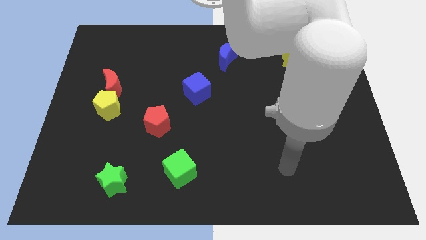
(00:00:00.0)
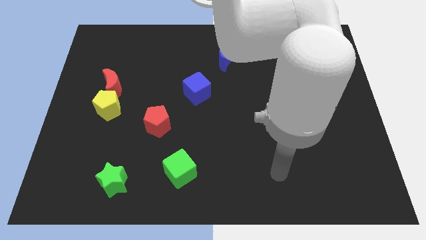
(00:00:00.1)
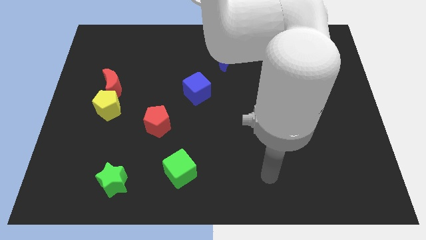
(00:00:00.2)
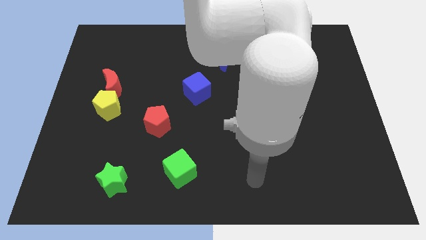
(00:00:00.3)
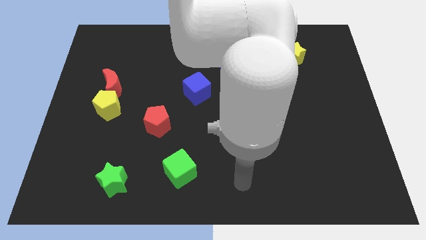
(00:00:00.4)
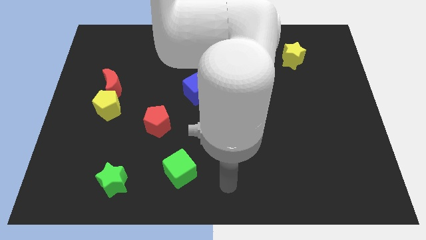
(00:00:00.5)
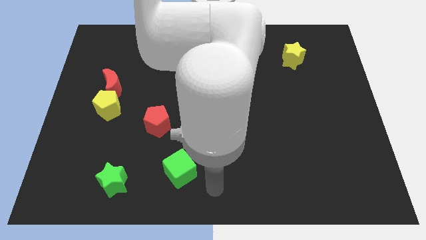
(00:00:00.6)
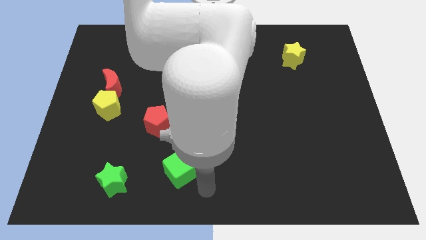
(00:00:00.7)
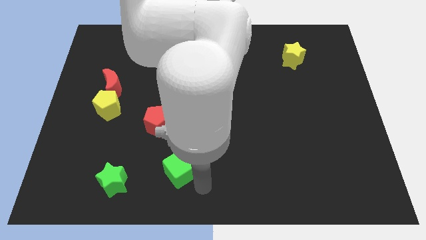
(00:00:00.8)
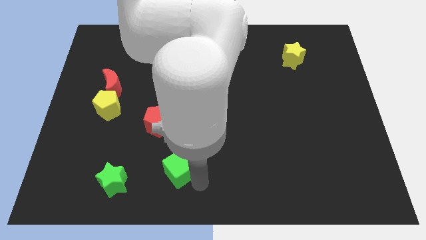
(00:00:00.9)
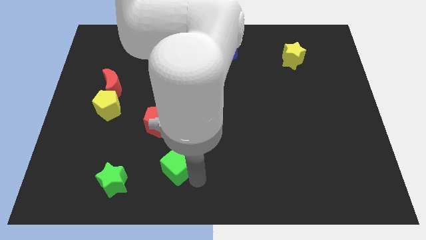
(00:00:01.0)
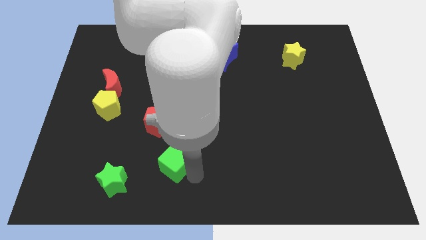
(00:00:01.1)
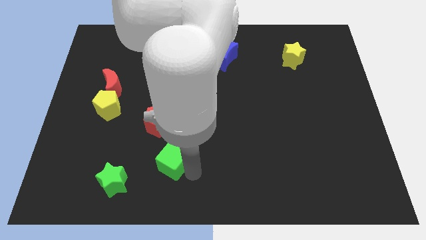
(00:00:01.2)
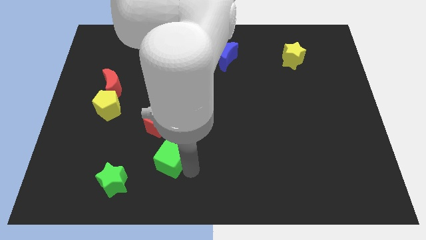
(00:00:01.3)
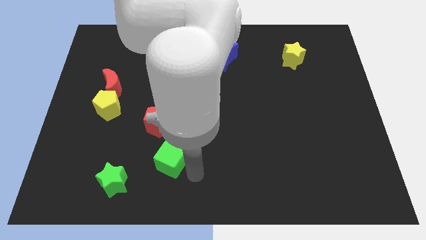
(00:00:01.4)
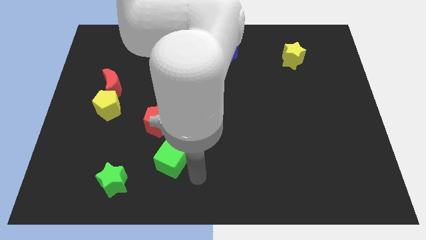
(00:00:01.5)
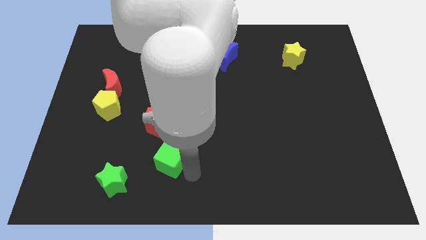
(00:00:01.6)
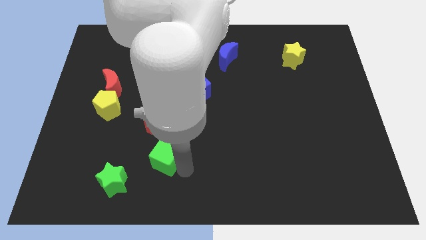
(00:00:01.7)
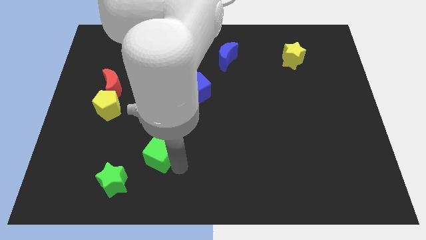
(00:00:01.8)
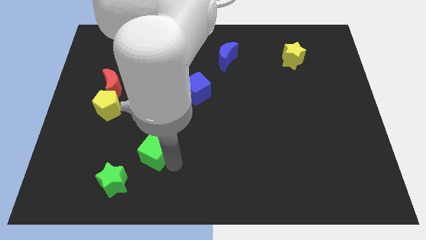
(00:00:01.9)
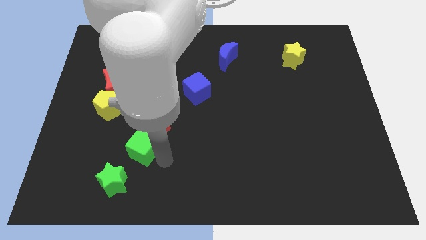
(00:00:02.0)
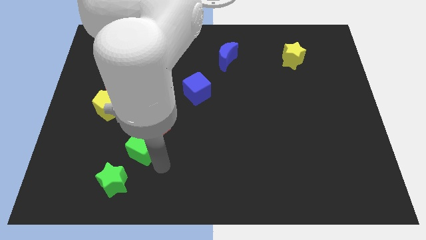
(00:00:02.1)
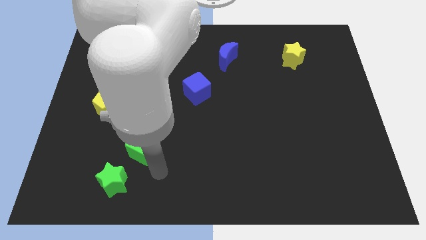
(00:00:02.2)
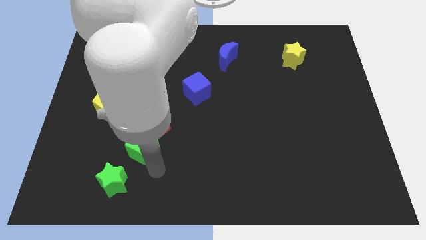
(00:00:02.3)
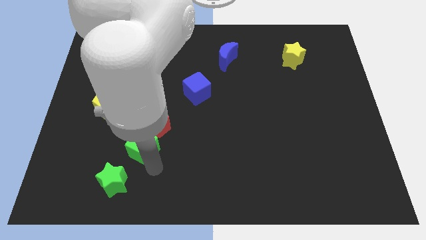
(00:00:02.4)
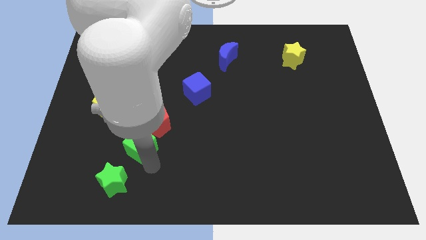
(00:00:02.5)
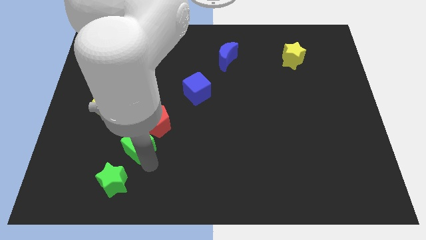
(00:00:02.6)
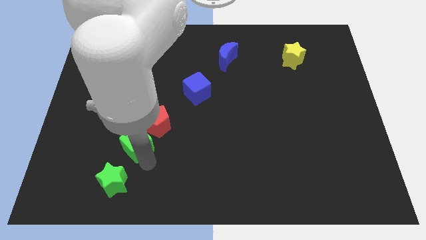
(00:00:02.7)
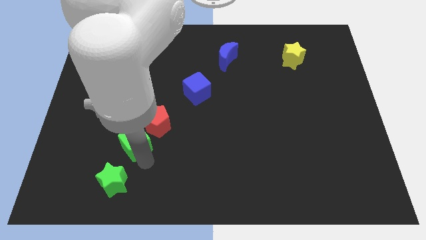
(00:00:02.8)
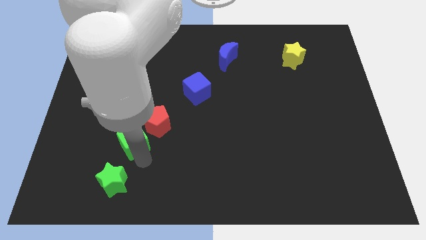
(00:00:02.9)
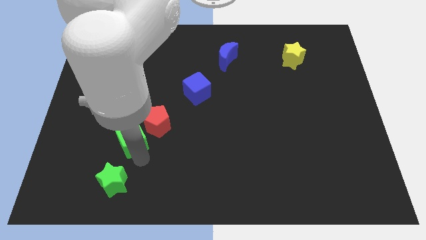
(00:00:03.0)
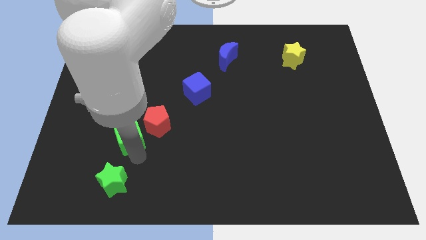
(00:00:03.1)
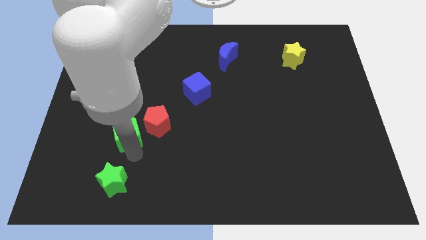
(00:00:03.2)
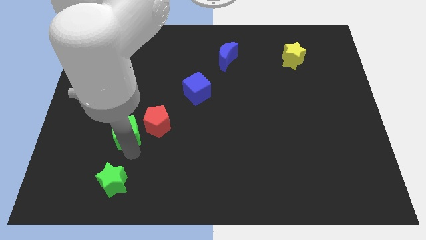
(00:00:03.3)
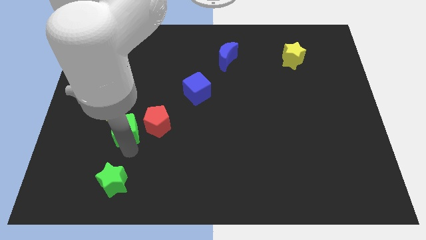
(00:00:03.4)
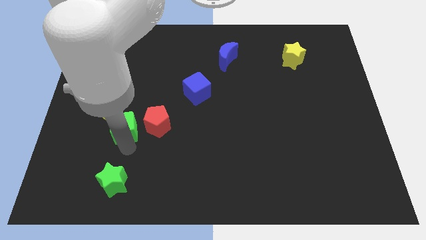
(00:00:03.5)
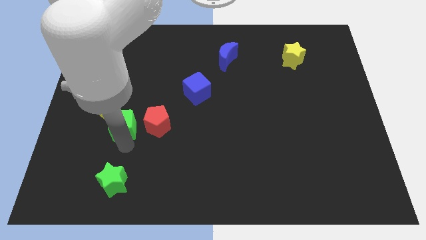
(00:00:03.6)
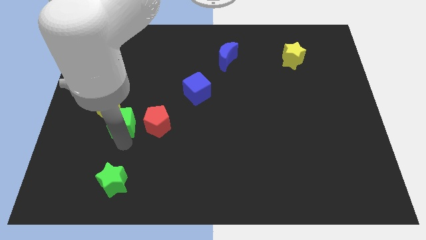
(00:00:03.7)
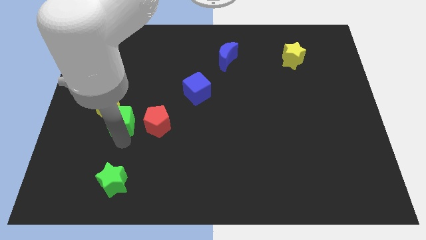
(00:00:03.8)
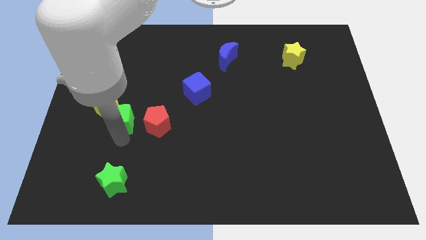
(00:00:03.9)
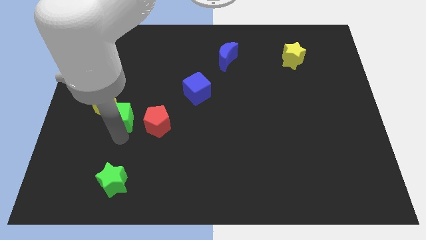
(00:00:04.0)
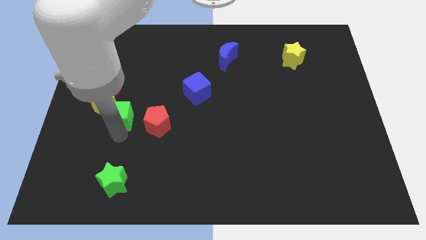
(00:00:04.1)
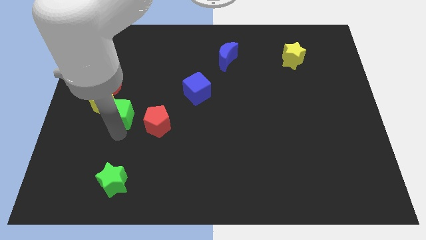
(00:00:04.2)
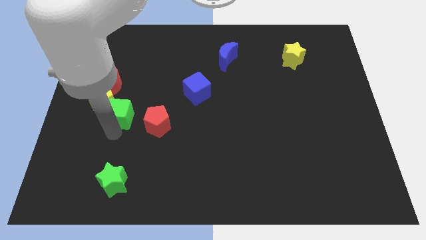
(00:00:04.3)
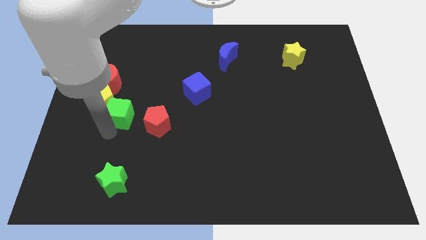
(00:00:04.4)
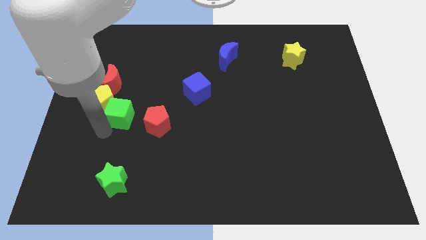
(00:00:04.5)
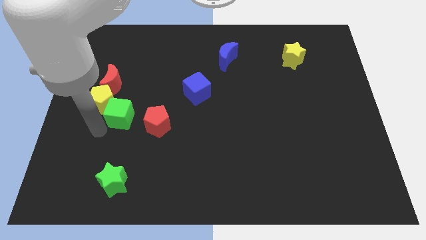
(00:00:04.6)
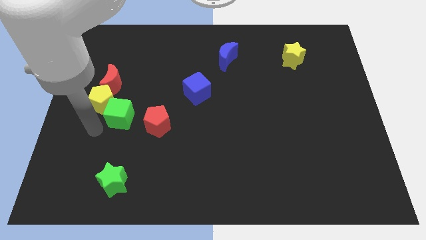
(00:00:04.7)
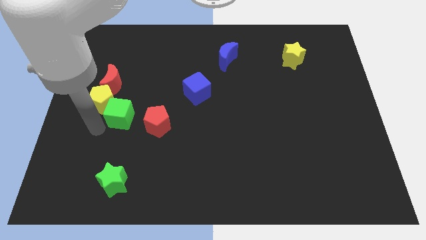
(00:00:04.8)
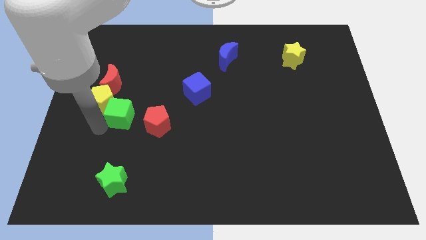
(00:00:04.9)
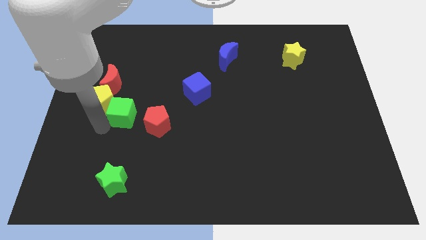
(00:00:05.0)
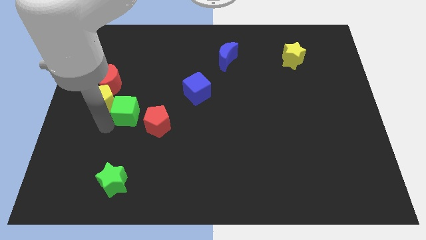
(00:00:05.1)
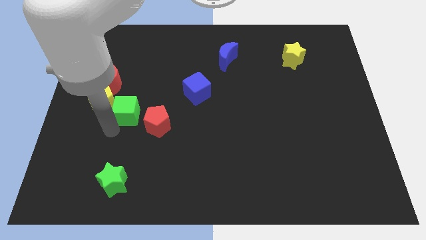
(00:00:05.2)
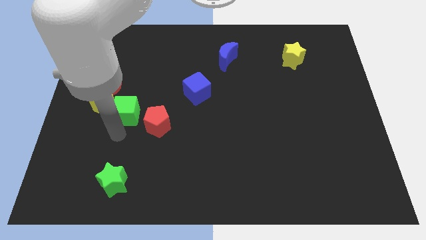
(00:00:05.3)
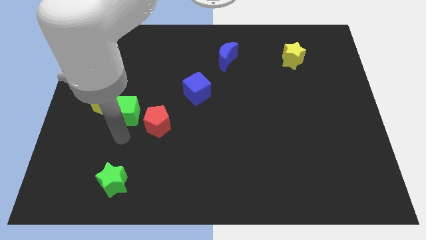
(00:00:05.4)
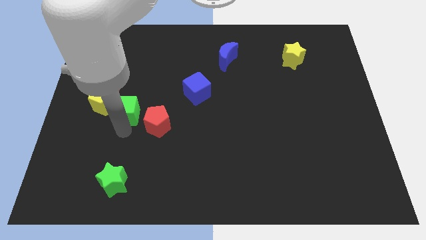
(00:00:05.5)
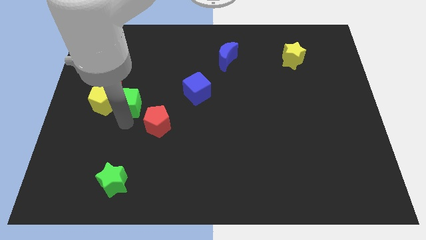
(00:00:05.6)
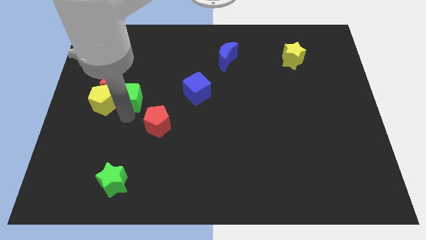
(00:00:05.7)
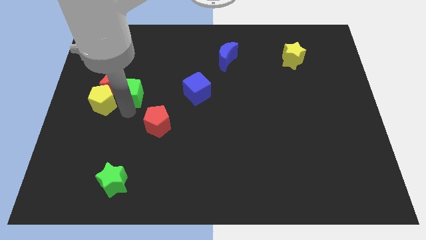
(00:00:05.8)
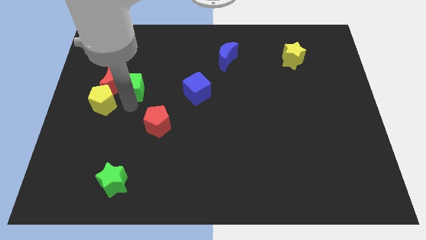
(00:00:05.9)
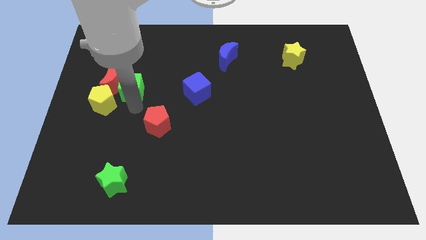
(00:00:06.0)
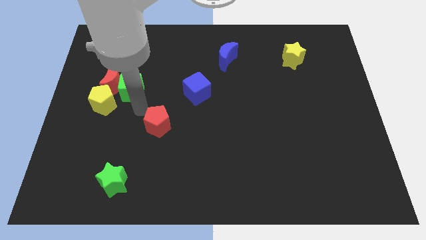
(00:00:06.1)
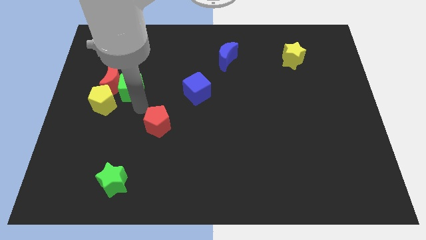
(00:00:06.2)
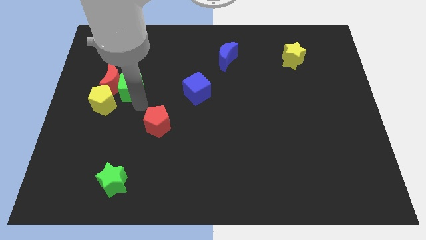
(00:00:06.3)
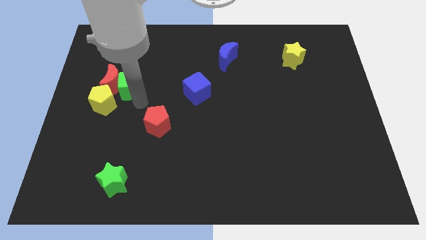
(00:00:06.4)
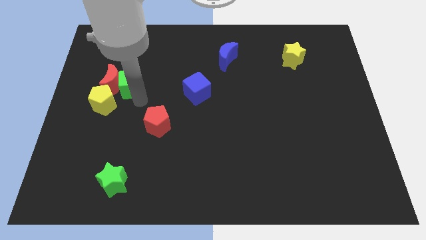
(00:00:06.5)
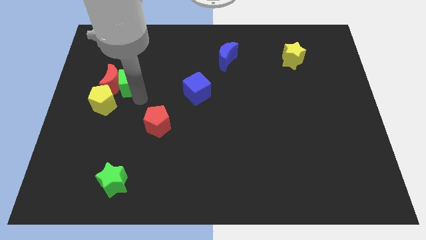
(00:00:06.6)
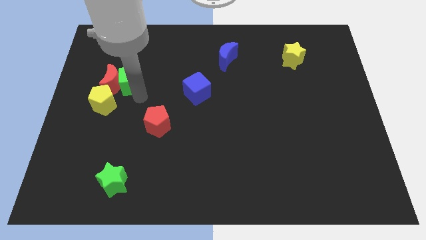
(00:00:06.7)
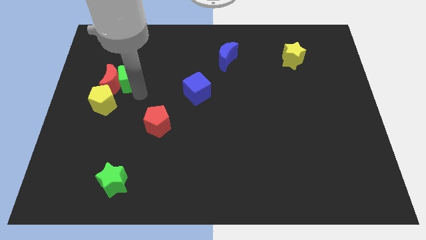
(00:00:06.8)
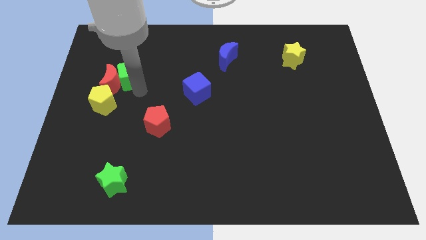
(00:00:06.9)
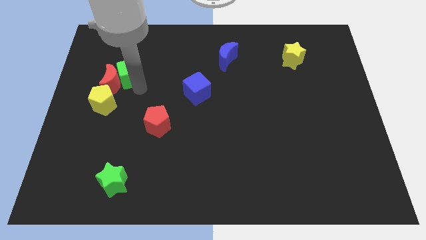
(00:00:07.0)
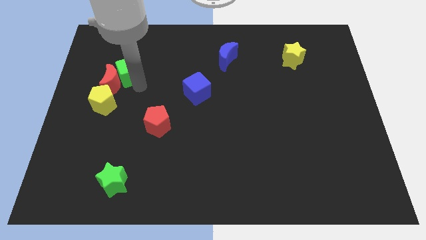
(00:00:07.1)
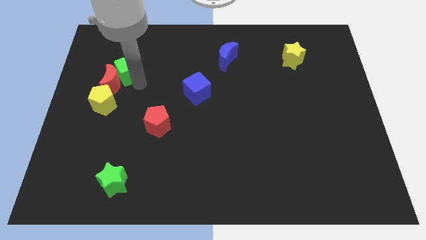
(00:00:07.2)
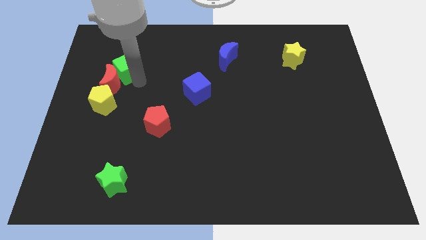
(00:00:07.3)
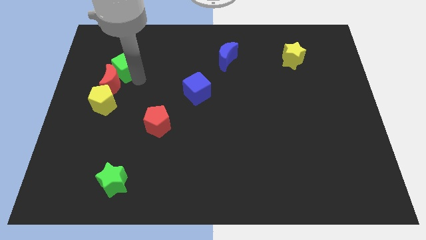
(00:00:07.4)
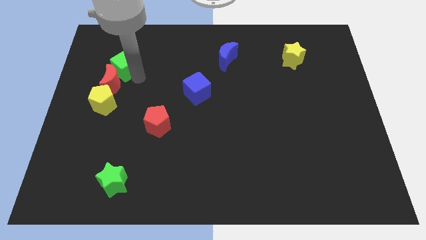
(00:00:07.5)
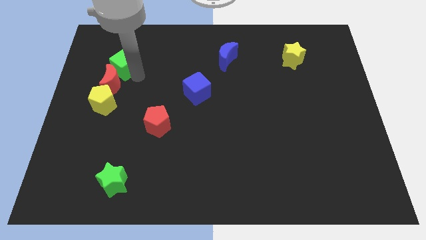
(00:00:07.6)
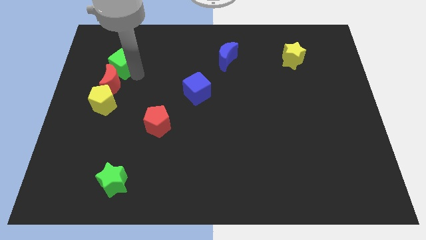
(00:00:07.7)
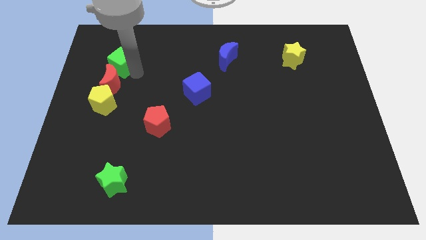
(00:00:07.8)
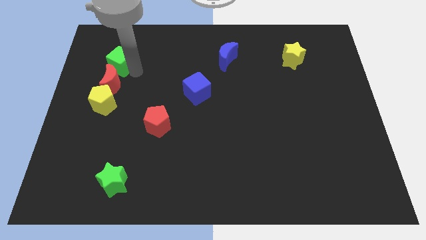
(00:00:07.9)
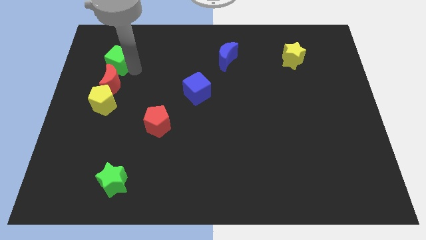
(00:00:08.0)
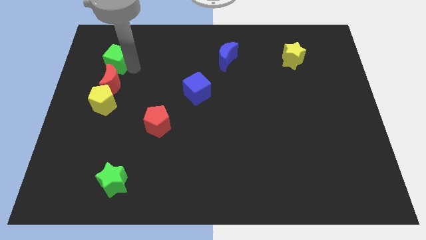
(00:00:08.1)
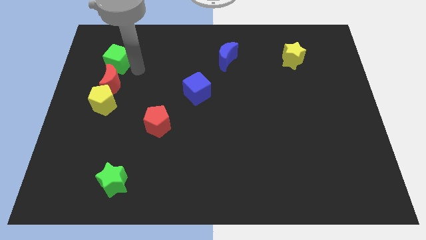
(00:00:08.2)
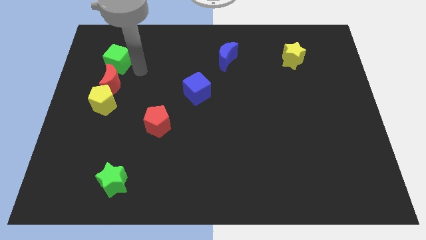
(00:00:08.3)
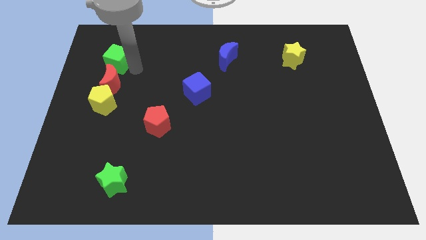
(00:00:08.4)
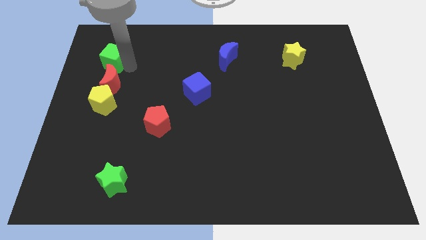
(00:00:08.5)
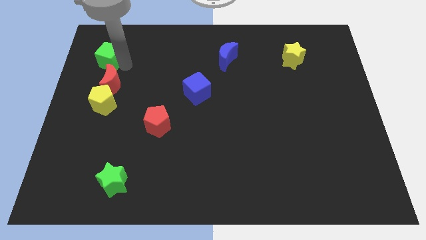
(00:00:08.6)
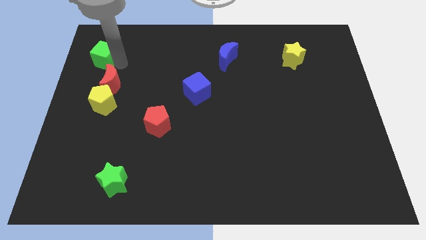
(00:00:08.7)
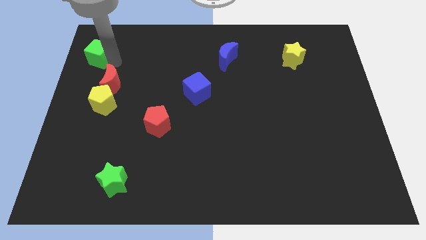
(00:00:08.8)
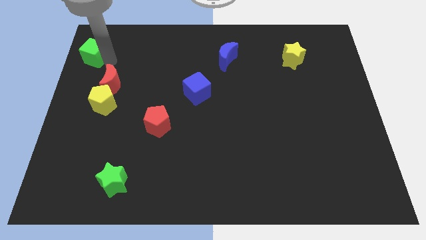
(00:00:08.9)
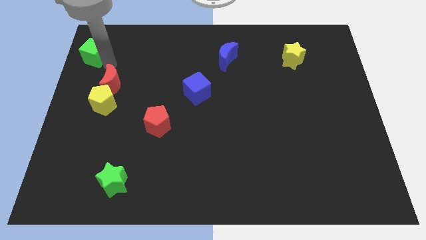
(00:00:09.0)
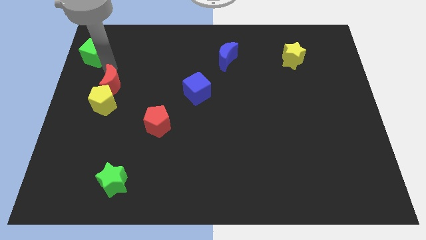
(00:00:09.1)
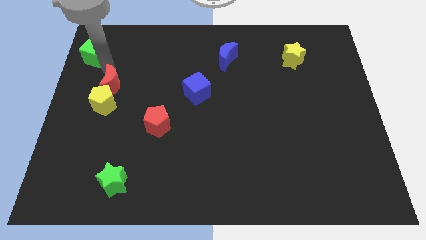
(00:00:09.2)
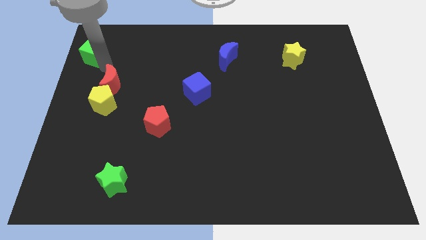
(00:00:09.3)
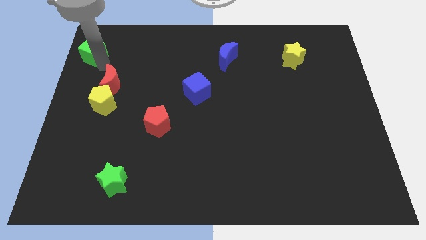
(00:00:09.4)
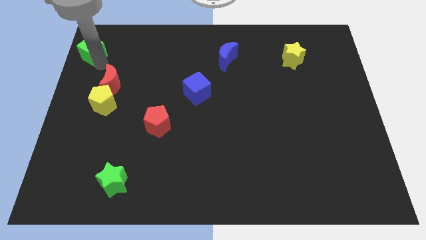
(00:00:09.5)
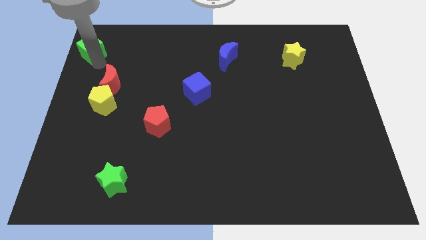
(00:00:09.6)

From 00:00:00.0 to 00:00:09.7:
put the green cube to the upper left corner
